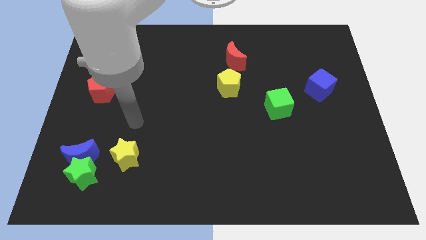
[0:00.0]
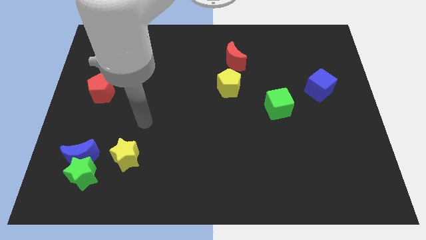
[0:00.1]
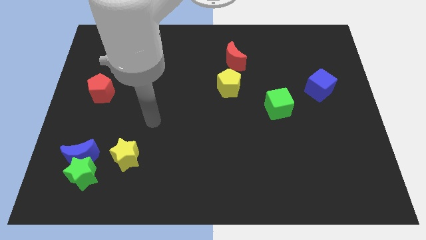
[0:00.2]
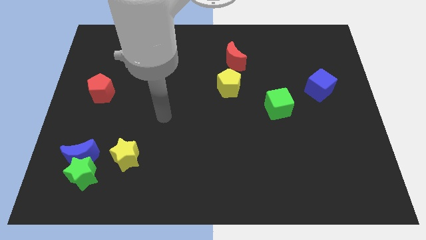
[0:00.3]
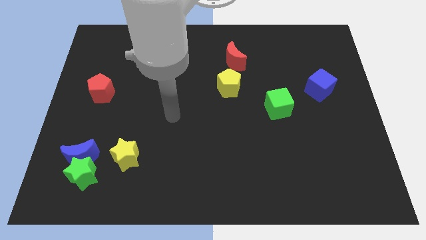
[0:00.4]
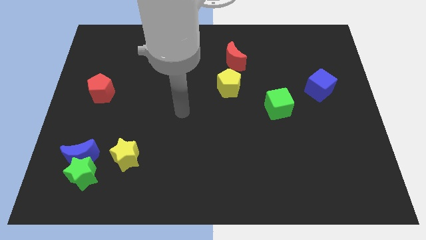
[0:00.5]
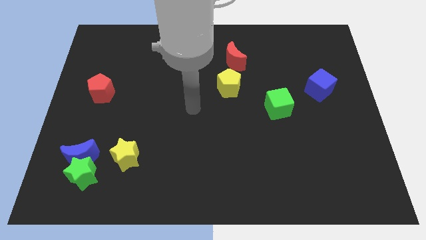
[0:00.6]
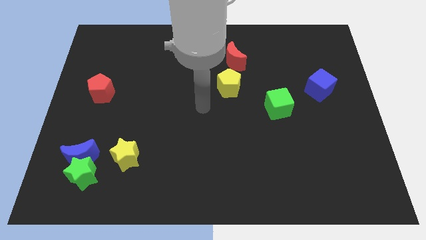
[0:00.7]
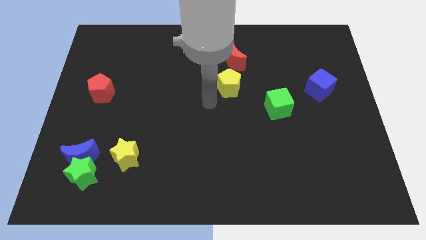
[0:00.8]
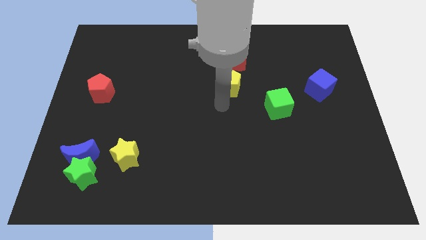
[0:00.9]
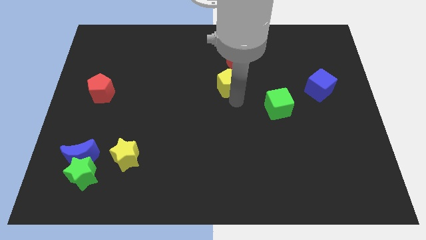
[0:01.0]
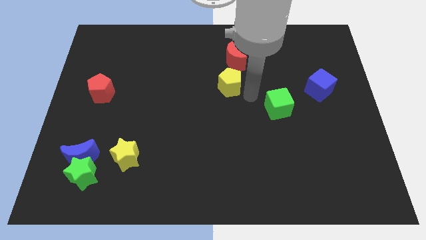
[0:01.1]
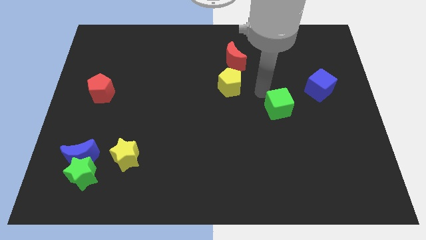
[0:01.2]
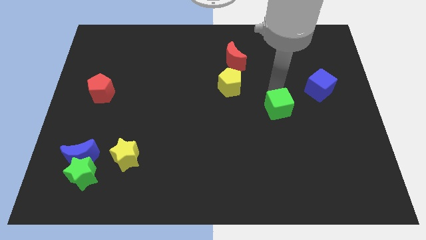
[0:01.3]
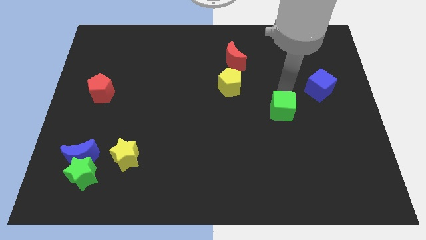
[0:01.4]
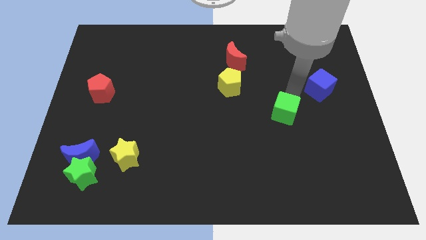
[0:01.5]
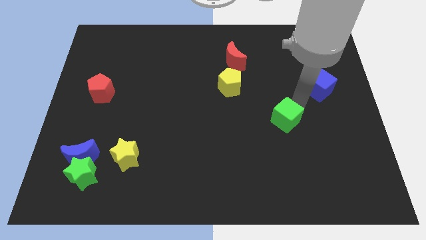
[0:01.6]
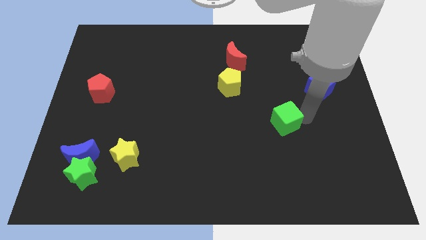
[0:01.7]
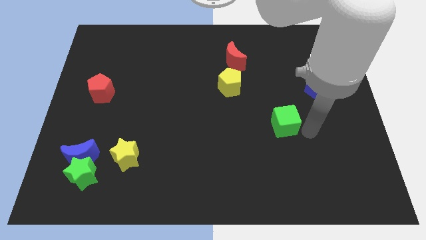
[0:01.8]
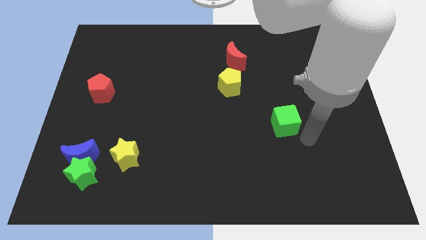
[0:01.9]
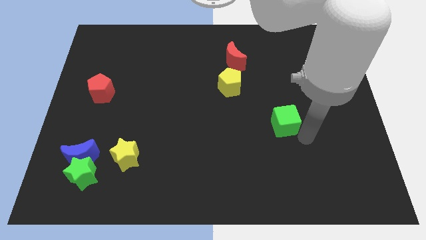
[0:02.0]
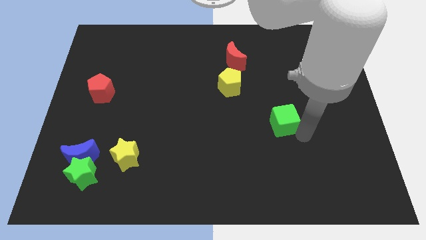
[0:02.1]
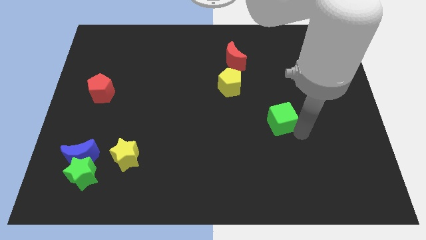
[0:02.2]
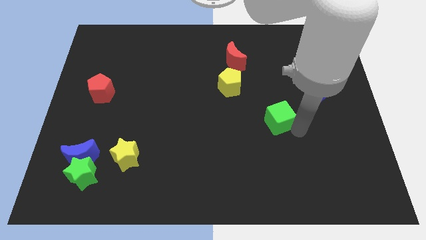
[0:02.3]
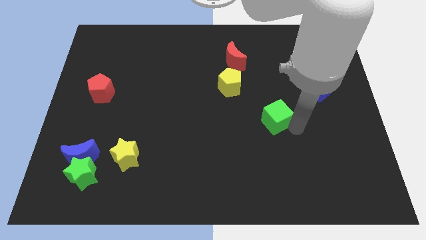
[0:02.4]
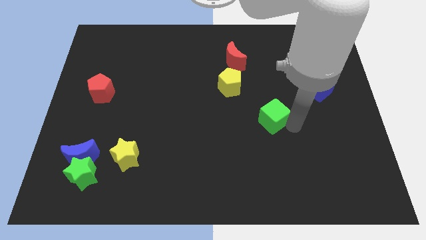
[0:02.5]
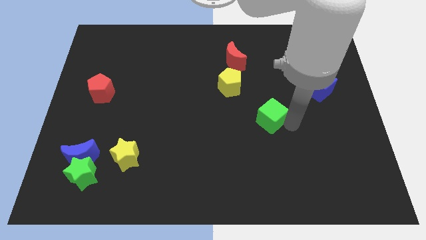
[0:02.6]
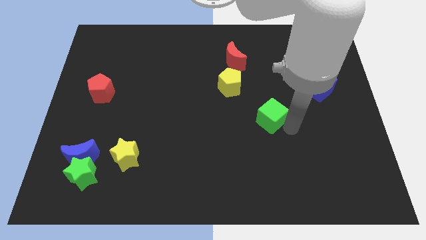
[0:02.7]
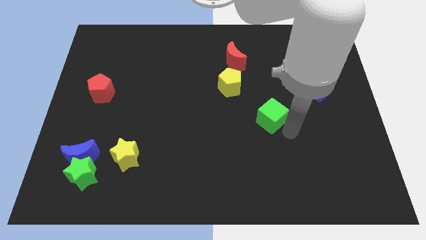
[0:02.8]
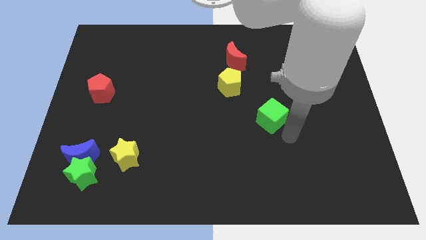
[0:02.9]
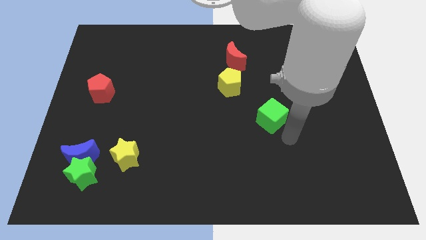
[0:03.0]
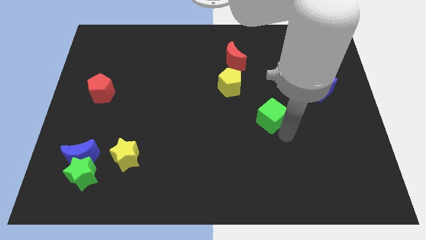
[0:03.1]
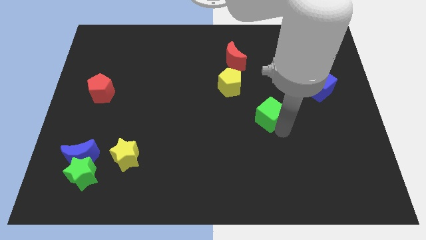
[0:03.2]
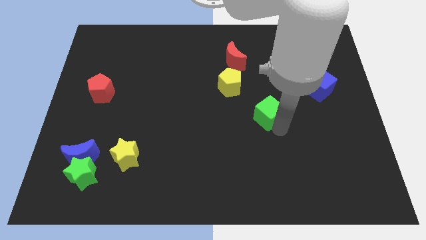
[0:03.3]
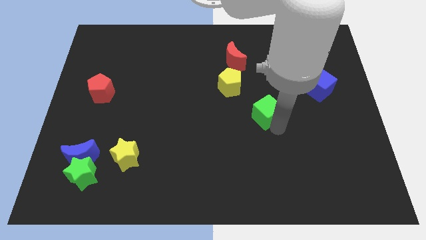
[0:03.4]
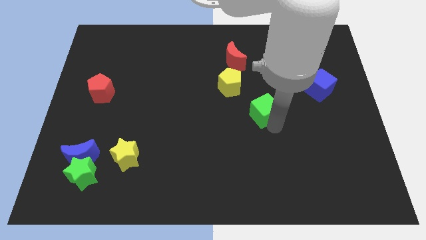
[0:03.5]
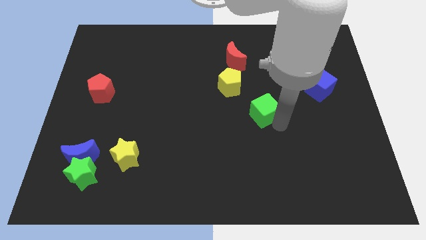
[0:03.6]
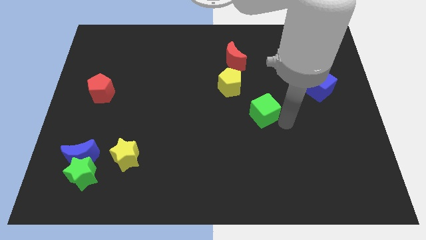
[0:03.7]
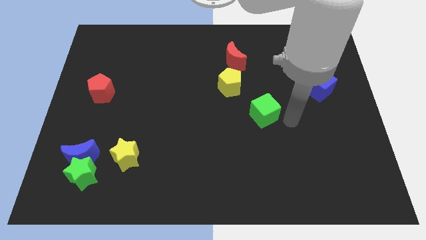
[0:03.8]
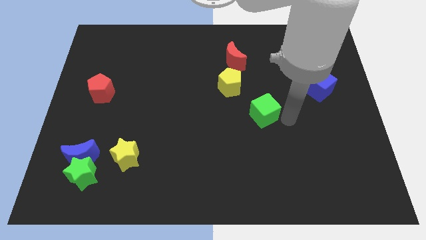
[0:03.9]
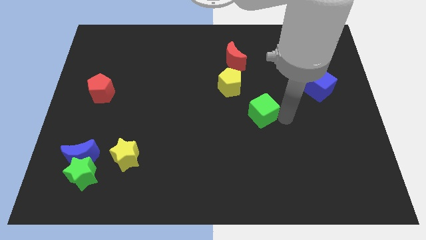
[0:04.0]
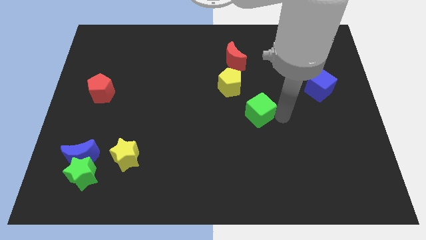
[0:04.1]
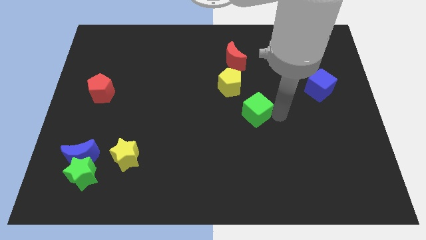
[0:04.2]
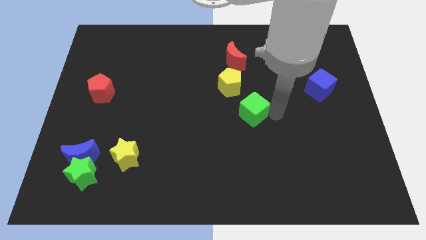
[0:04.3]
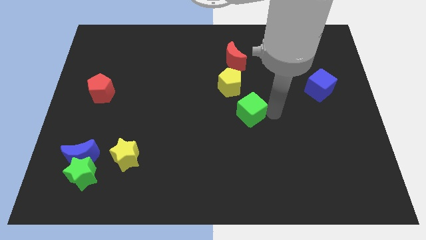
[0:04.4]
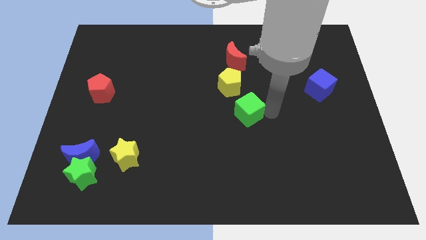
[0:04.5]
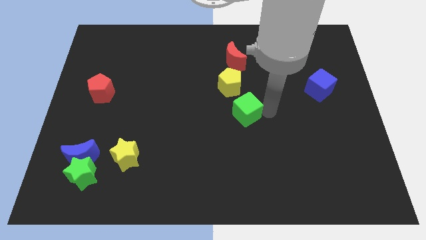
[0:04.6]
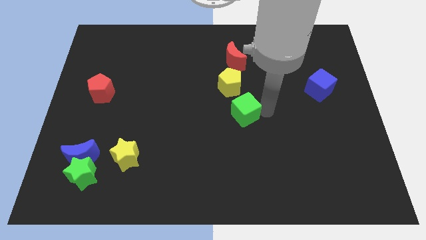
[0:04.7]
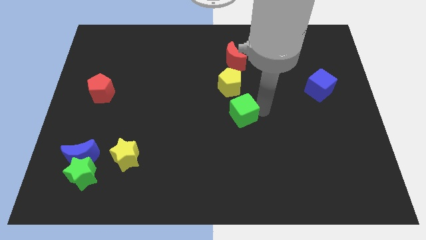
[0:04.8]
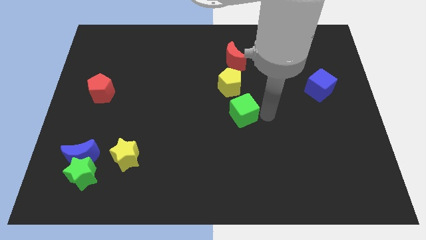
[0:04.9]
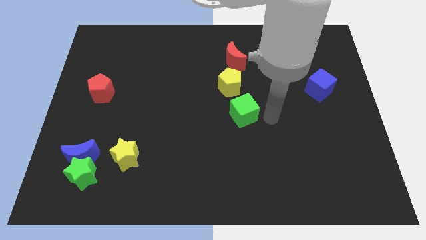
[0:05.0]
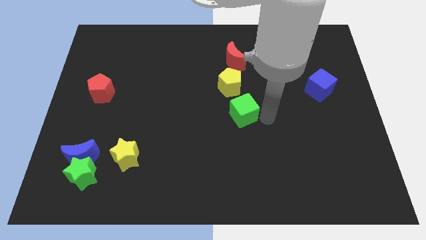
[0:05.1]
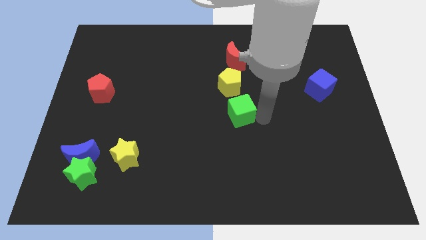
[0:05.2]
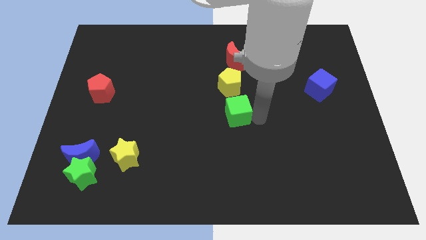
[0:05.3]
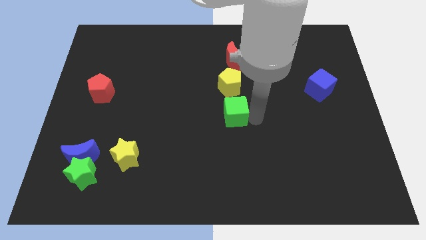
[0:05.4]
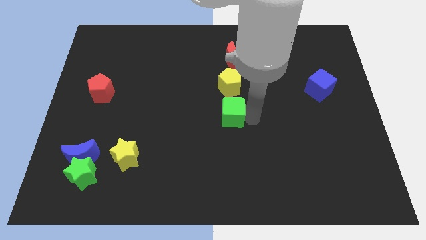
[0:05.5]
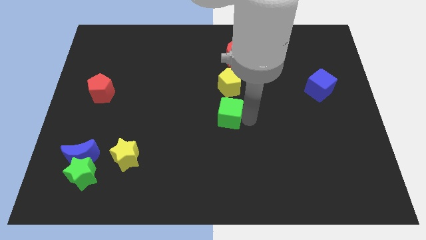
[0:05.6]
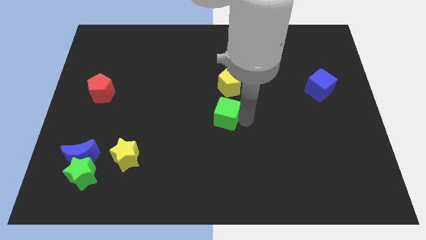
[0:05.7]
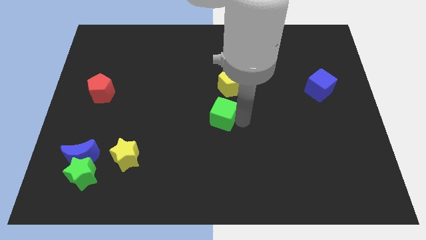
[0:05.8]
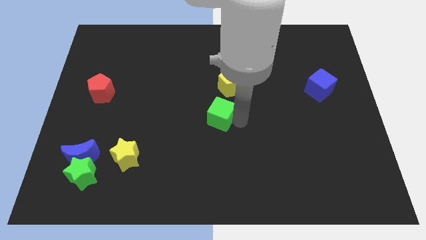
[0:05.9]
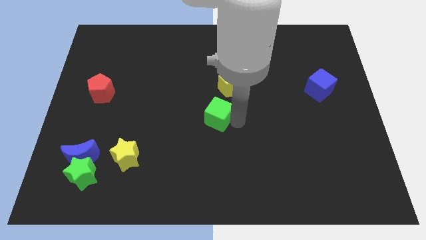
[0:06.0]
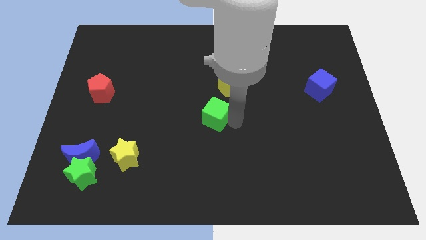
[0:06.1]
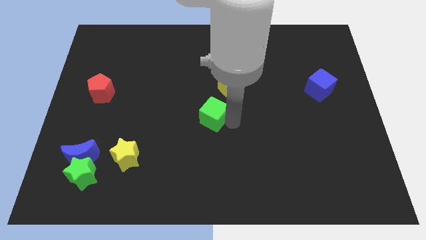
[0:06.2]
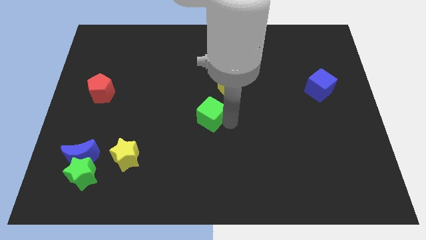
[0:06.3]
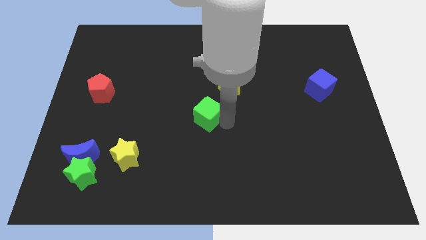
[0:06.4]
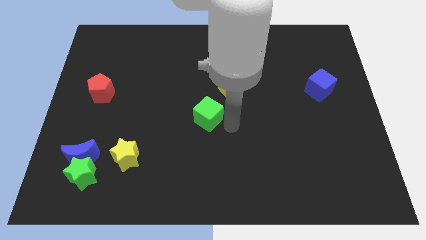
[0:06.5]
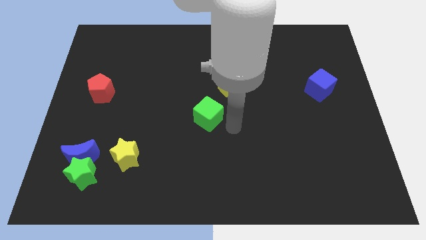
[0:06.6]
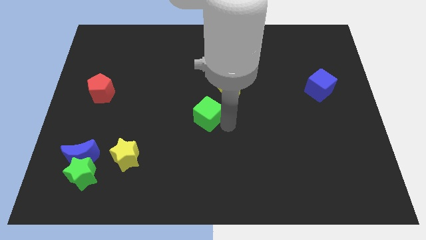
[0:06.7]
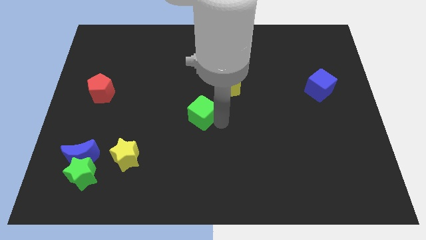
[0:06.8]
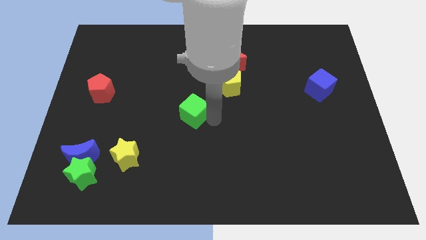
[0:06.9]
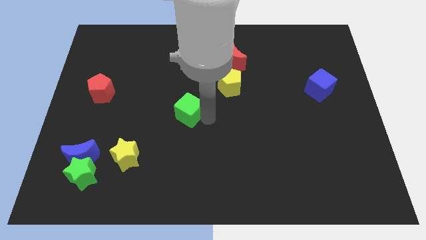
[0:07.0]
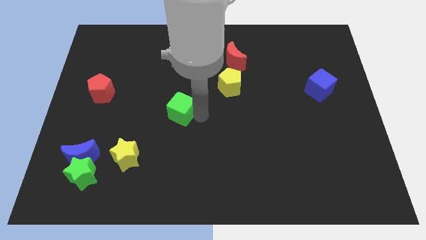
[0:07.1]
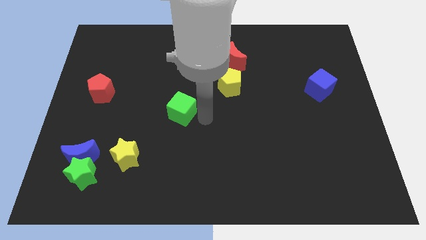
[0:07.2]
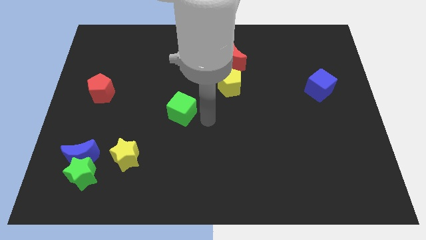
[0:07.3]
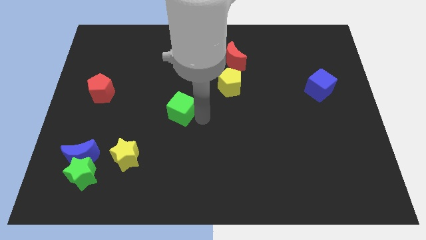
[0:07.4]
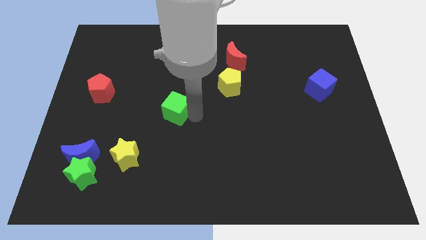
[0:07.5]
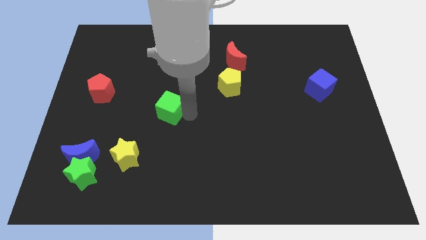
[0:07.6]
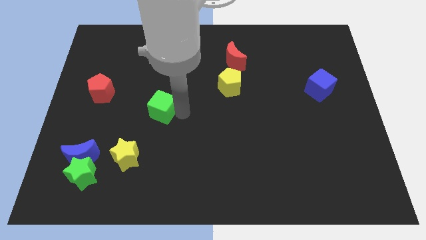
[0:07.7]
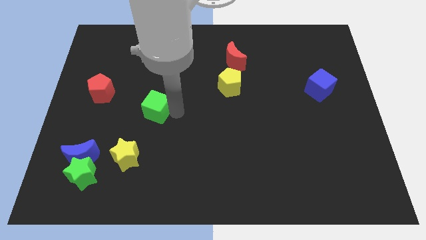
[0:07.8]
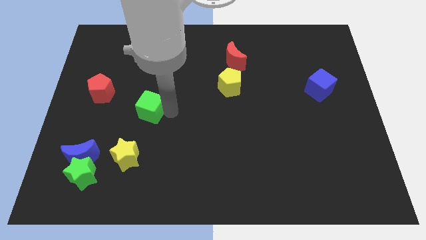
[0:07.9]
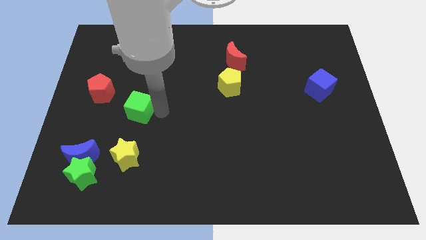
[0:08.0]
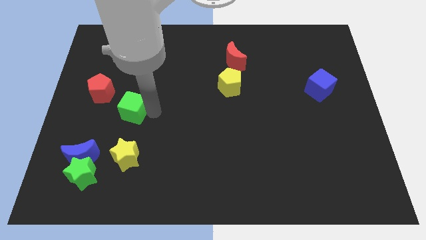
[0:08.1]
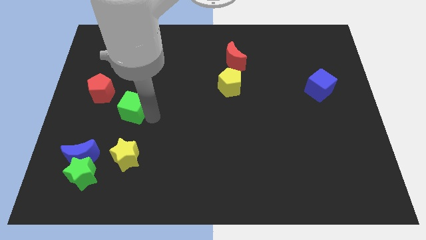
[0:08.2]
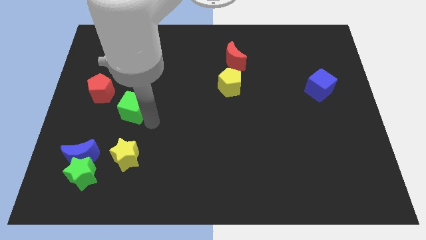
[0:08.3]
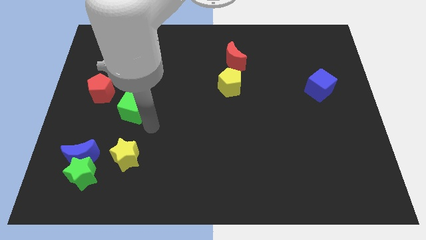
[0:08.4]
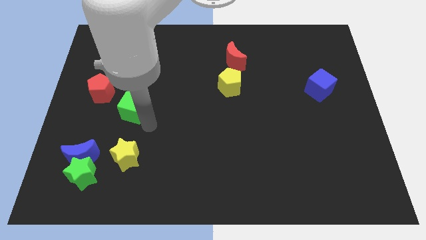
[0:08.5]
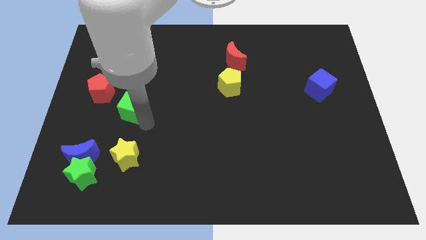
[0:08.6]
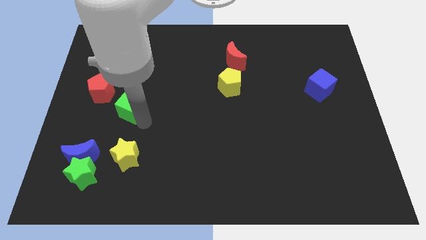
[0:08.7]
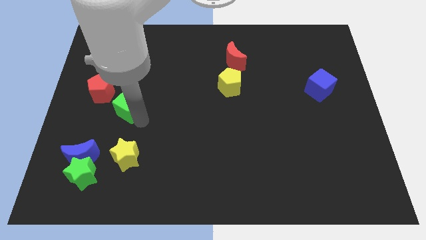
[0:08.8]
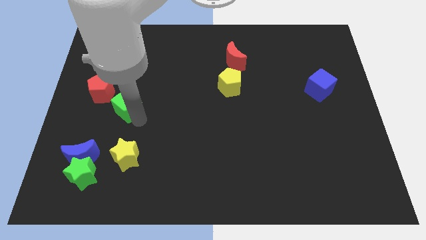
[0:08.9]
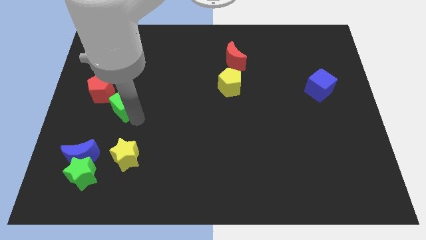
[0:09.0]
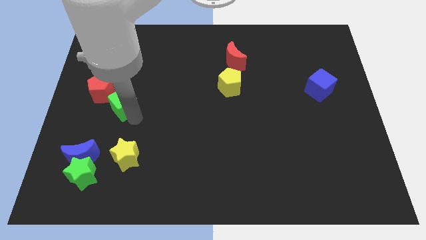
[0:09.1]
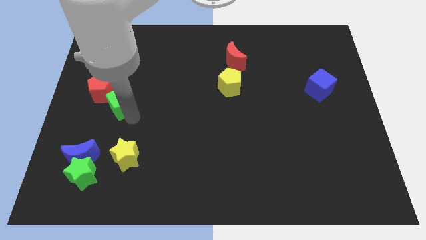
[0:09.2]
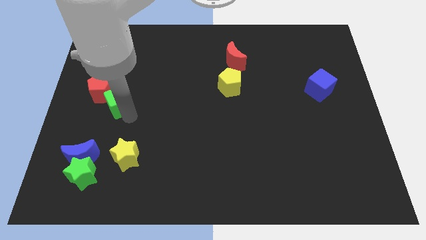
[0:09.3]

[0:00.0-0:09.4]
put the green cube close to the red pentagon
